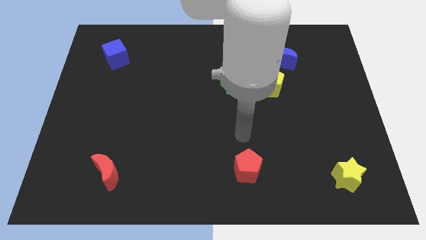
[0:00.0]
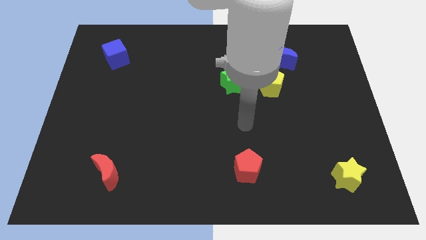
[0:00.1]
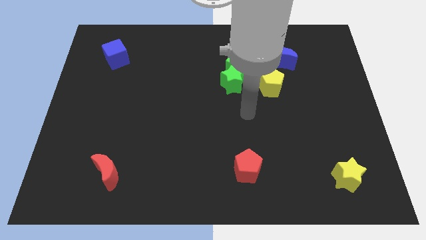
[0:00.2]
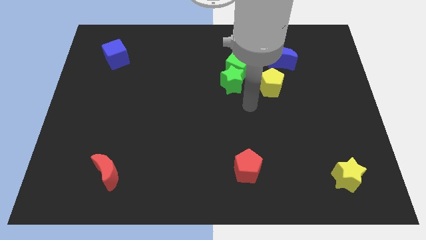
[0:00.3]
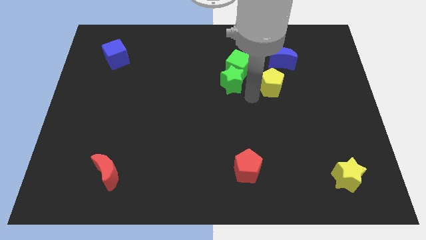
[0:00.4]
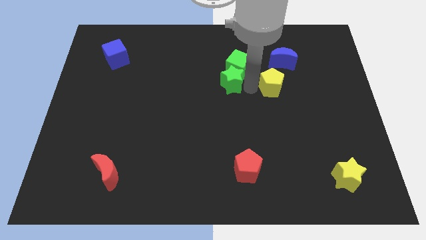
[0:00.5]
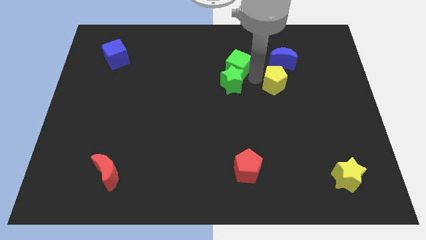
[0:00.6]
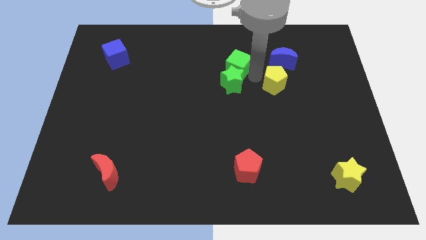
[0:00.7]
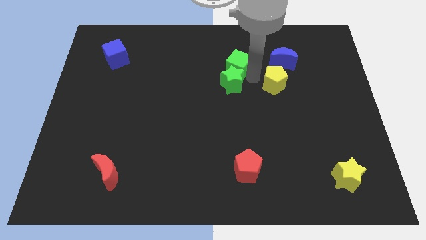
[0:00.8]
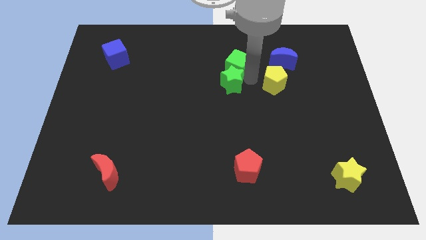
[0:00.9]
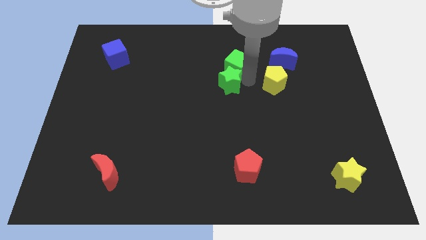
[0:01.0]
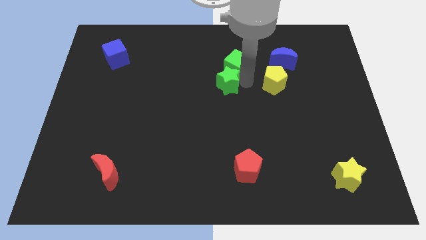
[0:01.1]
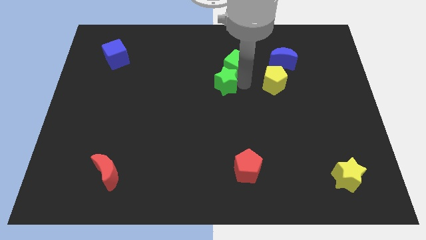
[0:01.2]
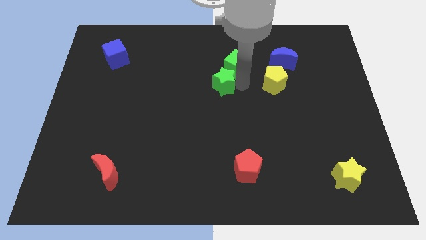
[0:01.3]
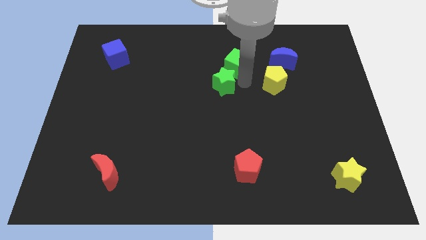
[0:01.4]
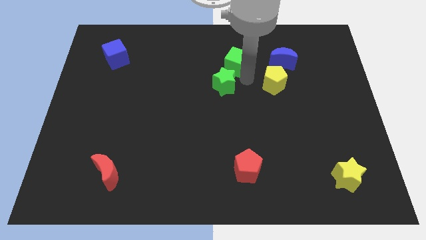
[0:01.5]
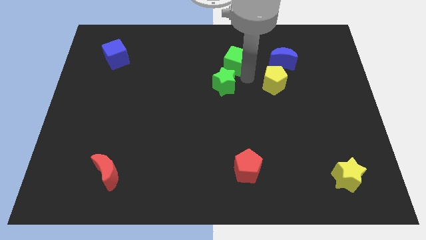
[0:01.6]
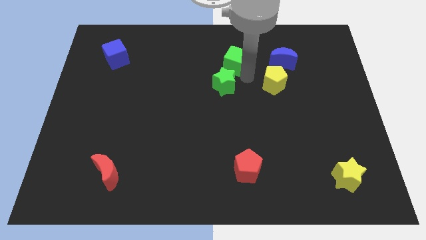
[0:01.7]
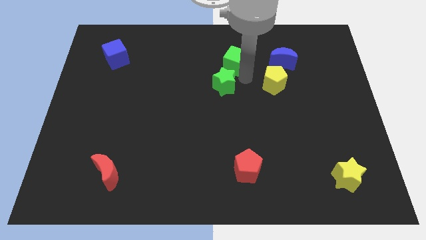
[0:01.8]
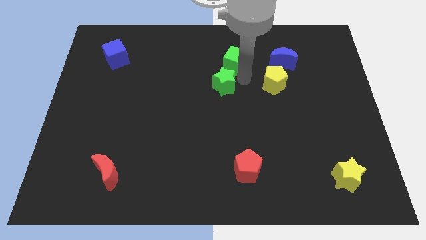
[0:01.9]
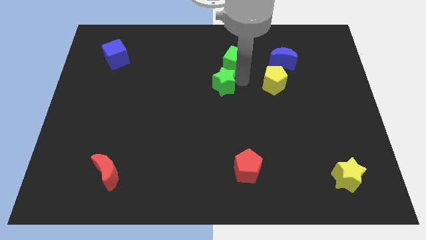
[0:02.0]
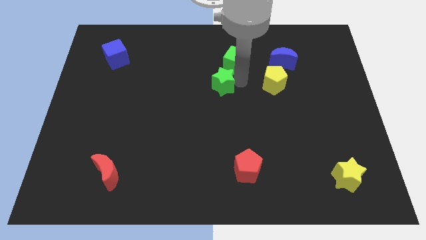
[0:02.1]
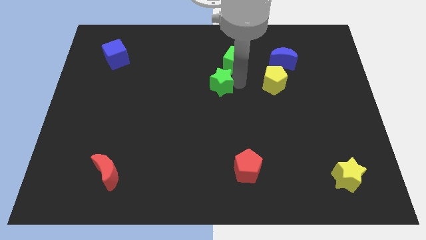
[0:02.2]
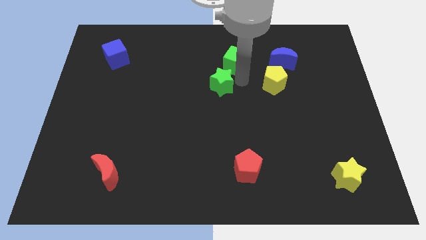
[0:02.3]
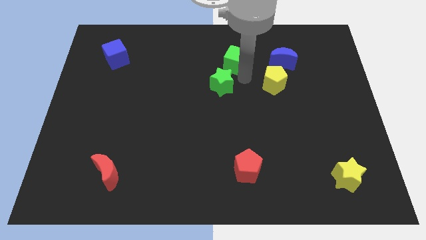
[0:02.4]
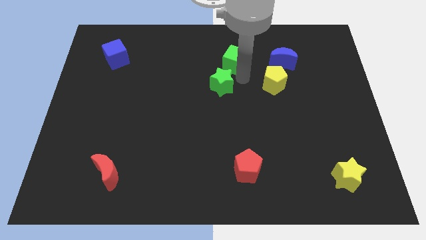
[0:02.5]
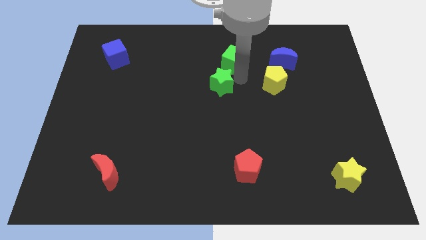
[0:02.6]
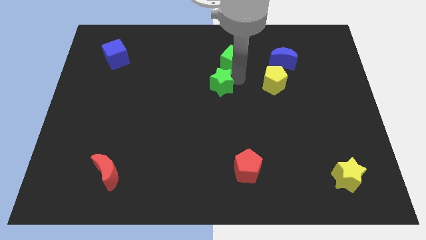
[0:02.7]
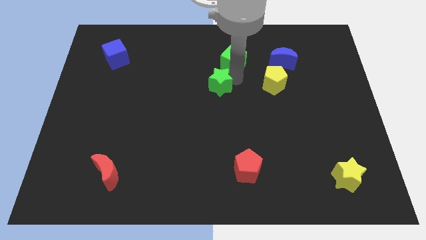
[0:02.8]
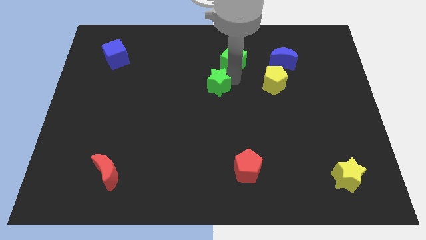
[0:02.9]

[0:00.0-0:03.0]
separate the green star from the green cube and yellow pentagon

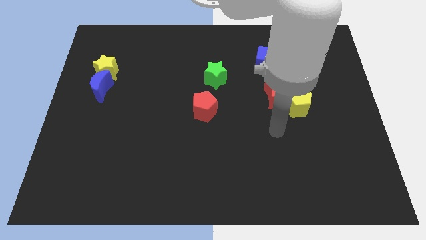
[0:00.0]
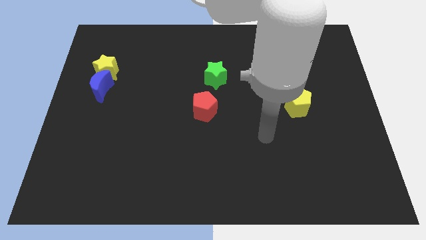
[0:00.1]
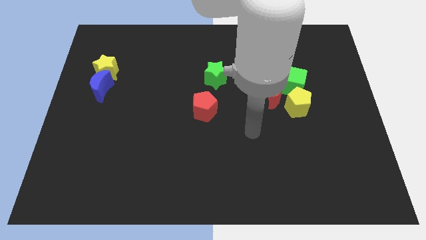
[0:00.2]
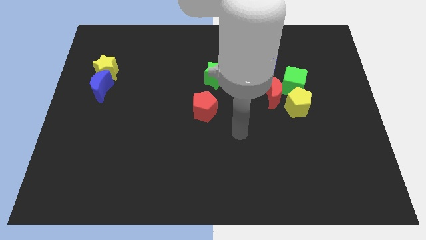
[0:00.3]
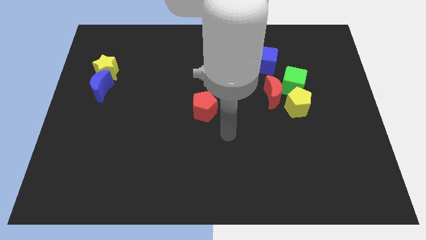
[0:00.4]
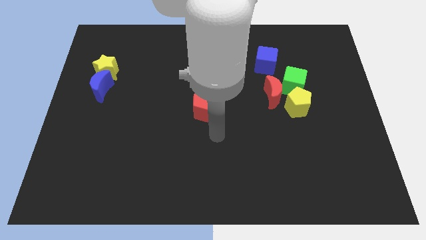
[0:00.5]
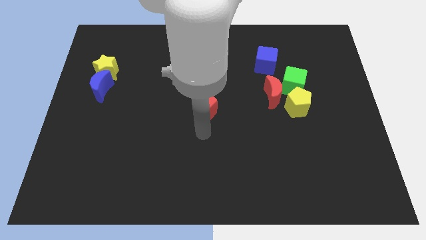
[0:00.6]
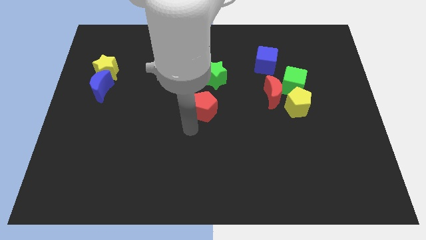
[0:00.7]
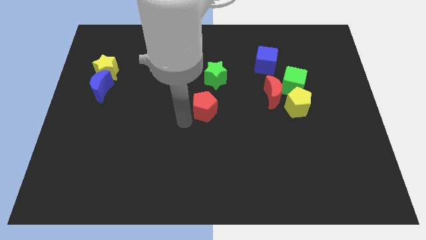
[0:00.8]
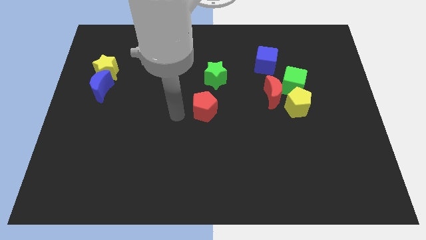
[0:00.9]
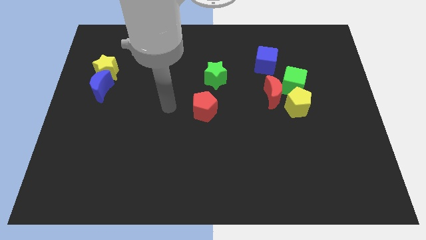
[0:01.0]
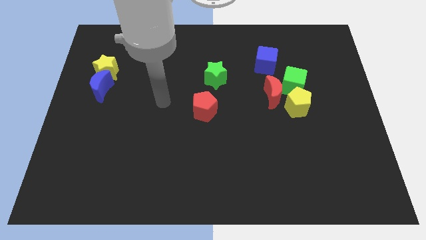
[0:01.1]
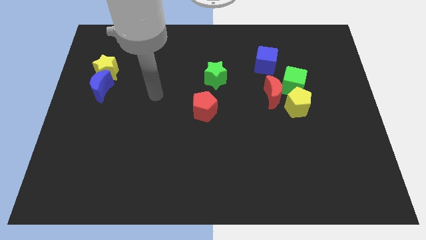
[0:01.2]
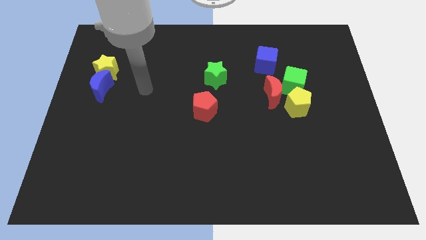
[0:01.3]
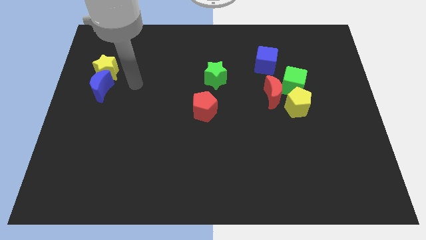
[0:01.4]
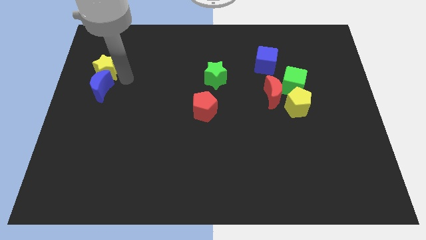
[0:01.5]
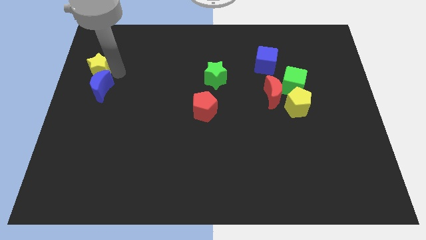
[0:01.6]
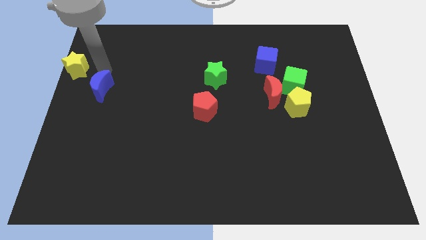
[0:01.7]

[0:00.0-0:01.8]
move the blue moon away from the yellow star

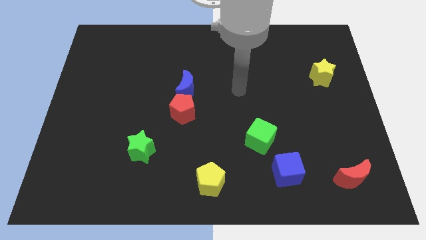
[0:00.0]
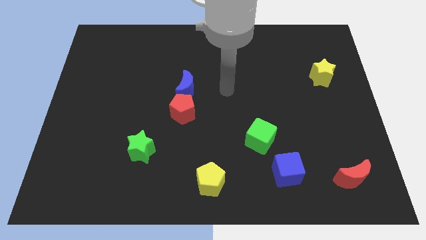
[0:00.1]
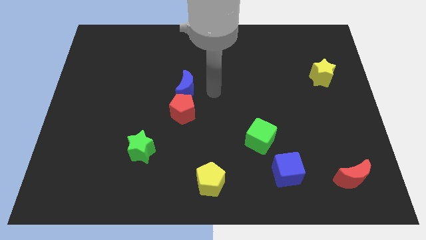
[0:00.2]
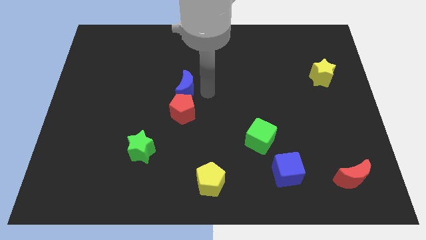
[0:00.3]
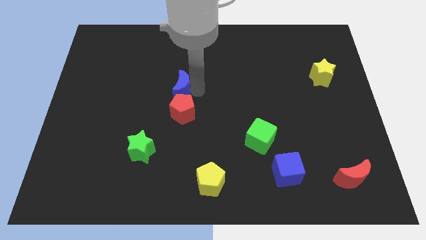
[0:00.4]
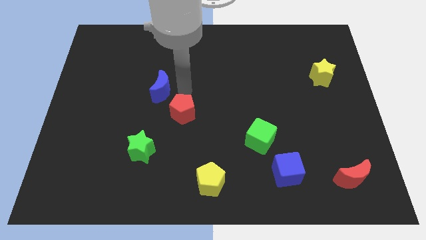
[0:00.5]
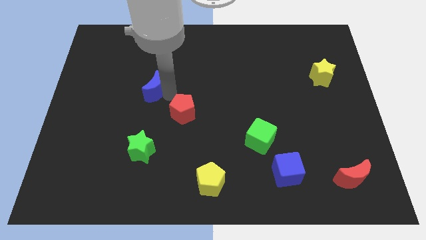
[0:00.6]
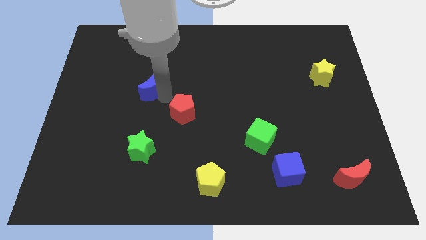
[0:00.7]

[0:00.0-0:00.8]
move the red pentagon away from the blue moon

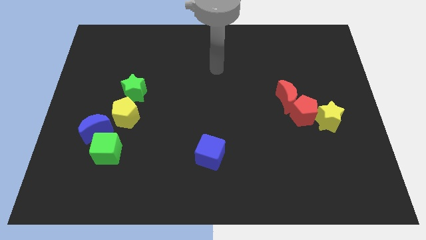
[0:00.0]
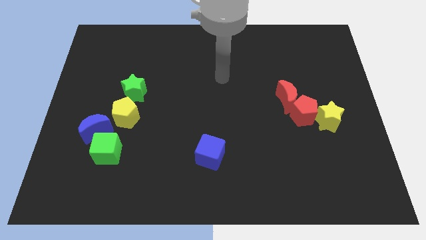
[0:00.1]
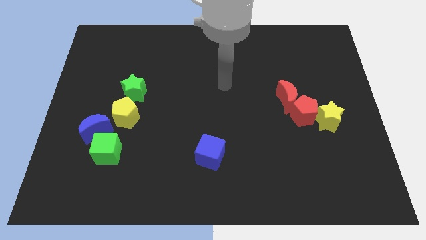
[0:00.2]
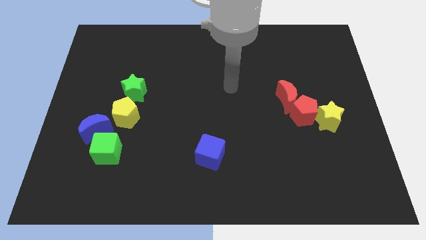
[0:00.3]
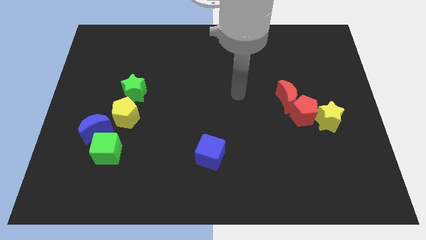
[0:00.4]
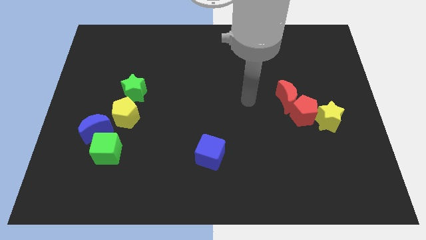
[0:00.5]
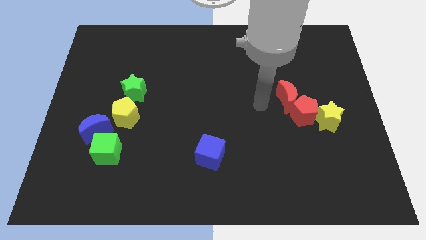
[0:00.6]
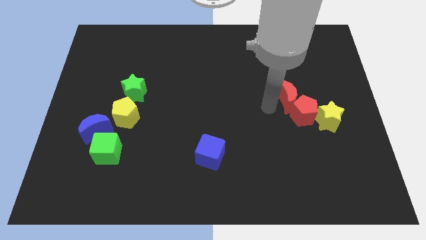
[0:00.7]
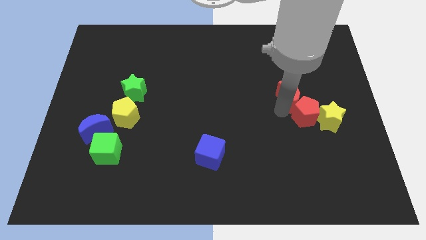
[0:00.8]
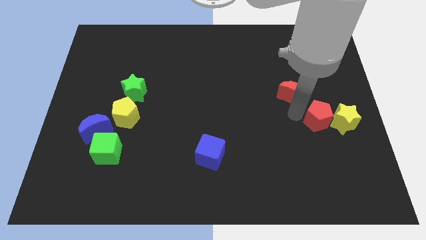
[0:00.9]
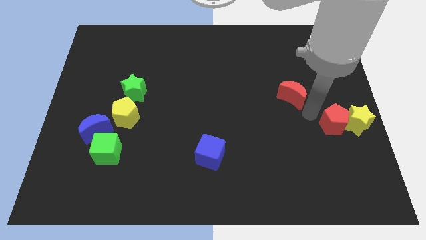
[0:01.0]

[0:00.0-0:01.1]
separate the red moon from the red pentagon

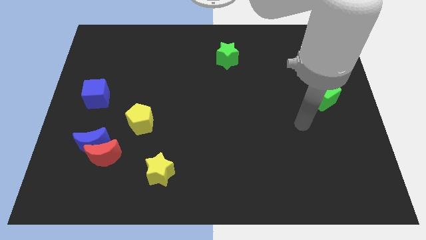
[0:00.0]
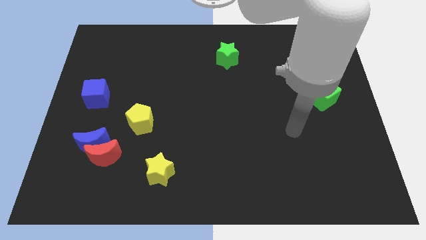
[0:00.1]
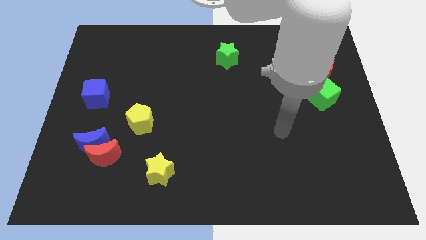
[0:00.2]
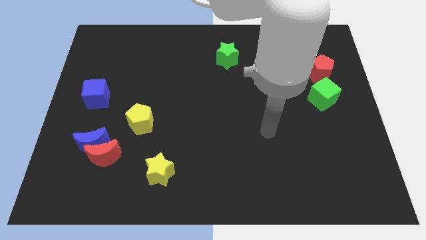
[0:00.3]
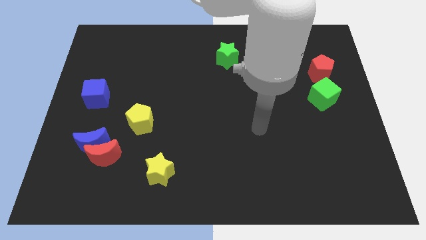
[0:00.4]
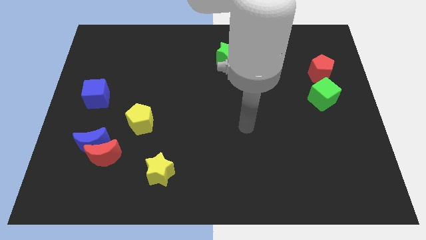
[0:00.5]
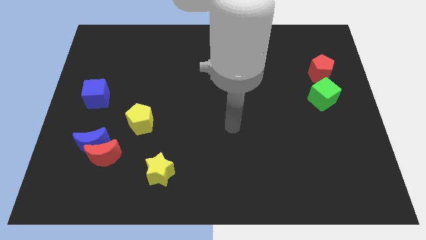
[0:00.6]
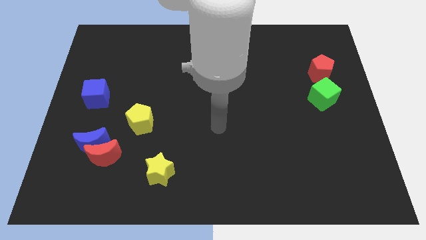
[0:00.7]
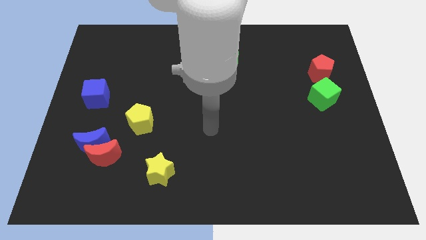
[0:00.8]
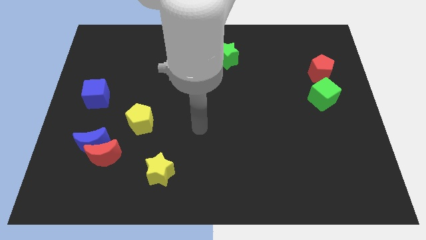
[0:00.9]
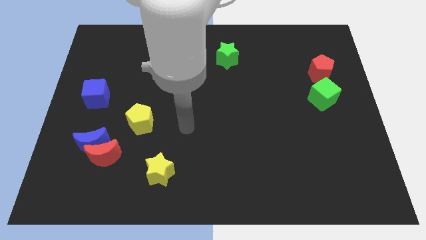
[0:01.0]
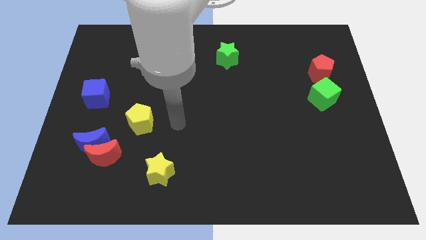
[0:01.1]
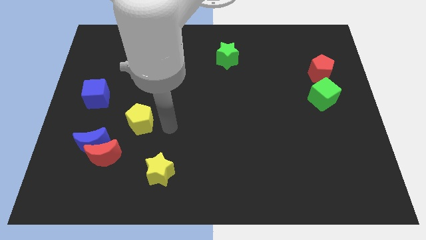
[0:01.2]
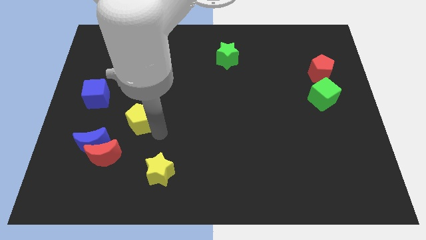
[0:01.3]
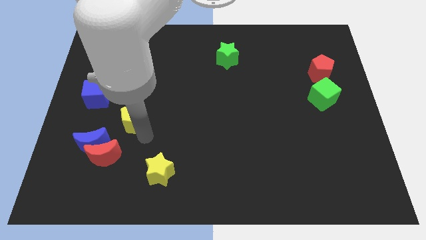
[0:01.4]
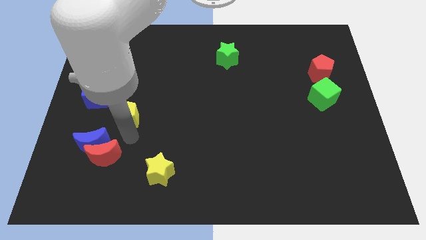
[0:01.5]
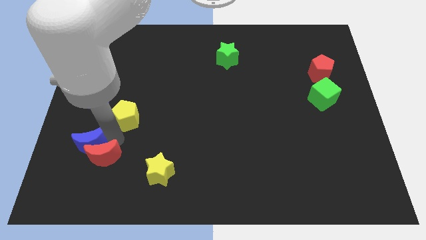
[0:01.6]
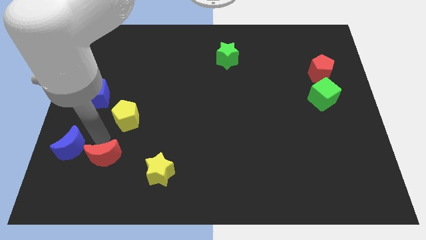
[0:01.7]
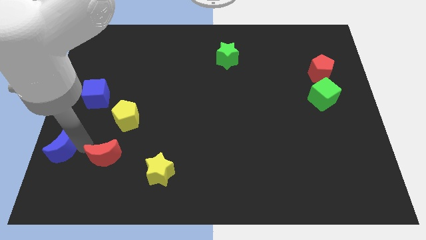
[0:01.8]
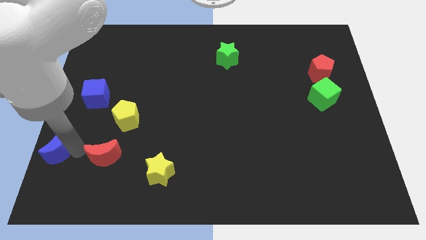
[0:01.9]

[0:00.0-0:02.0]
move the red moon away from the blue moon

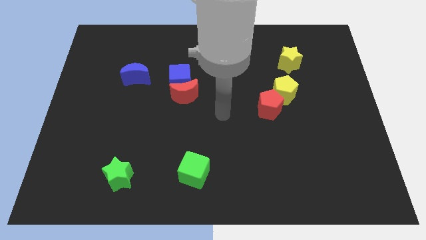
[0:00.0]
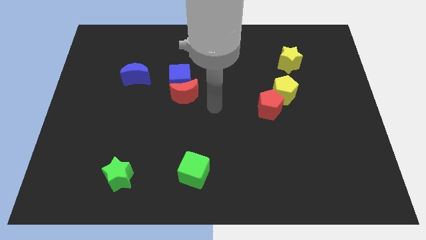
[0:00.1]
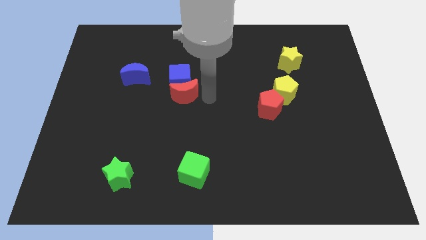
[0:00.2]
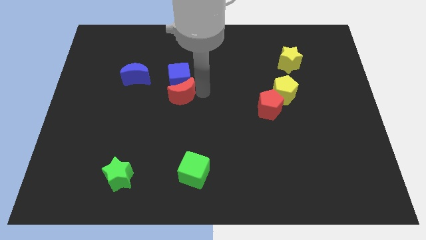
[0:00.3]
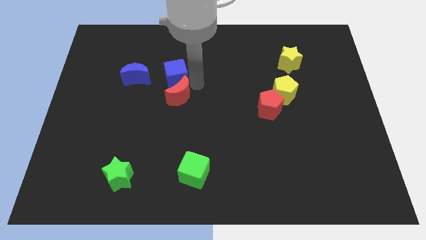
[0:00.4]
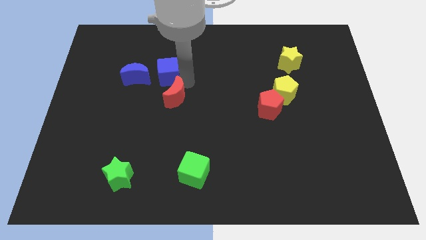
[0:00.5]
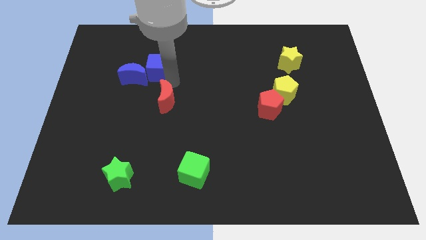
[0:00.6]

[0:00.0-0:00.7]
separate the red moon from the blue cube
